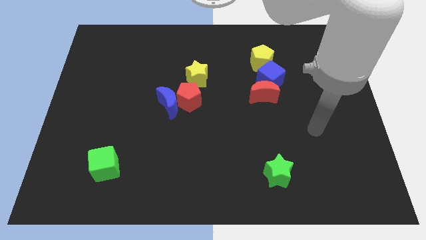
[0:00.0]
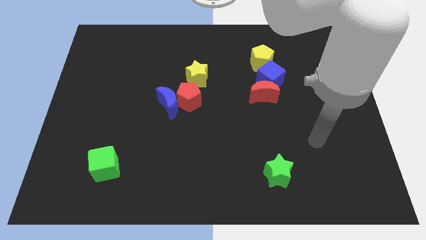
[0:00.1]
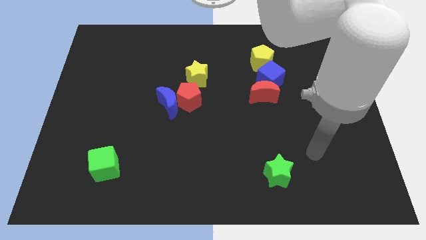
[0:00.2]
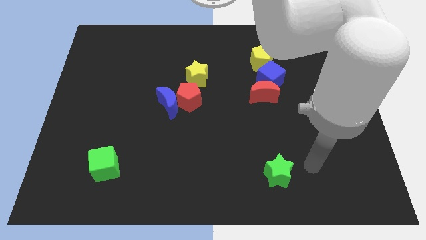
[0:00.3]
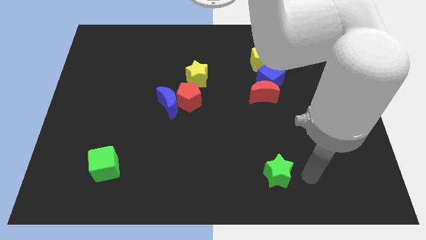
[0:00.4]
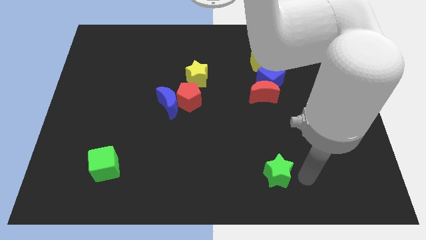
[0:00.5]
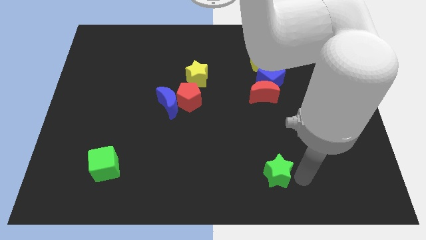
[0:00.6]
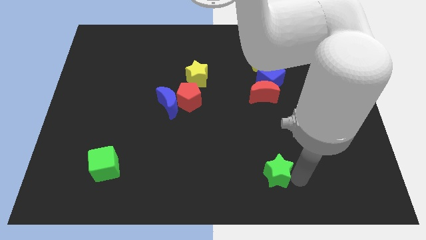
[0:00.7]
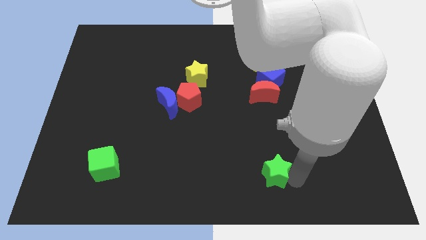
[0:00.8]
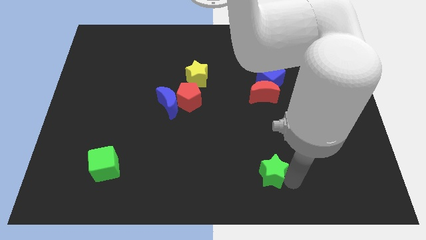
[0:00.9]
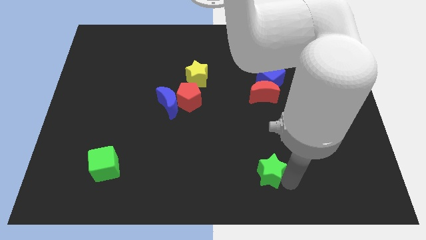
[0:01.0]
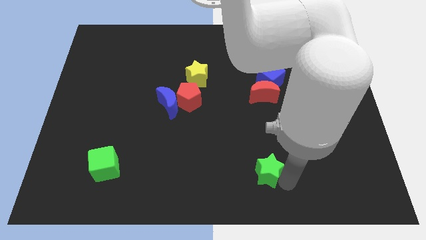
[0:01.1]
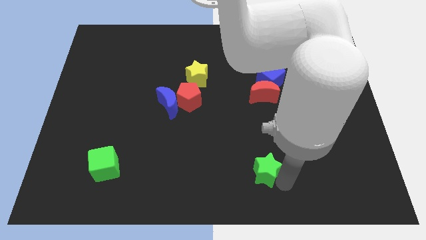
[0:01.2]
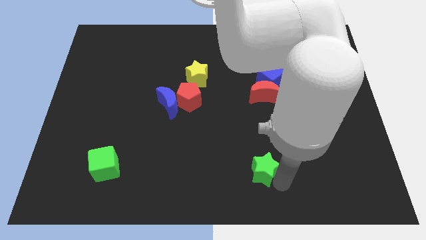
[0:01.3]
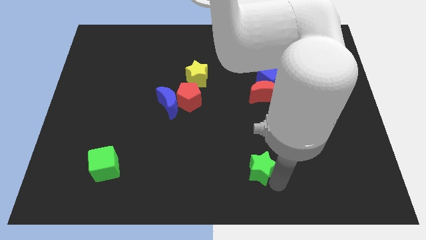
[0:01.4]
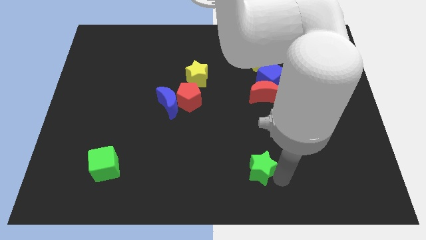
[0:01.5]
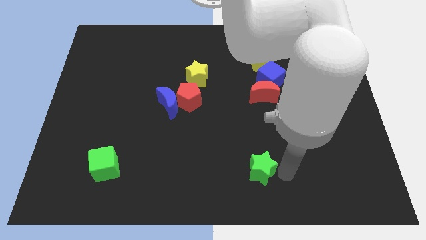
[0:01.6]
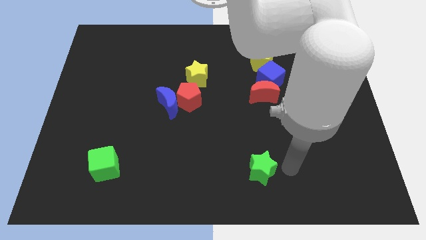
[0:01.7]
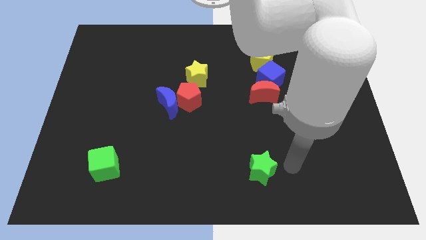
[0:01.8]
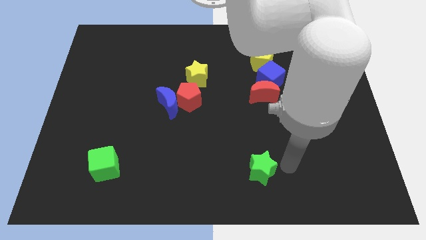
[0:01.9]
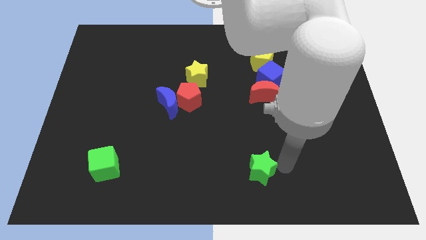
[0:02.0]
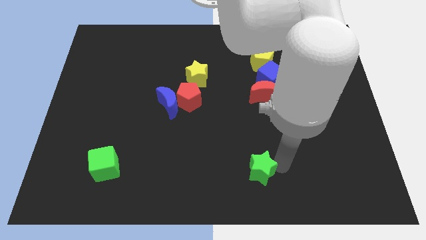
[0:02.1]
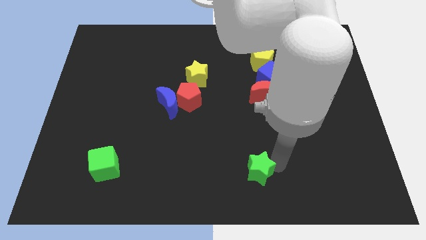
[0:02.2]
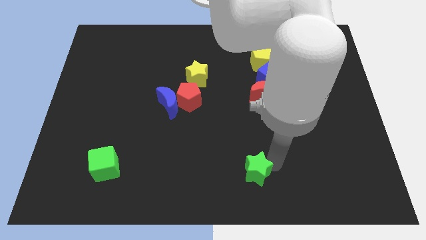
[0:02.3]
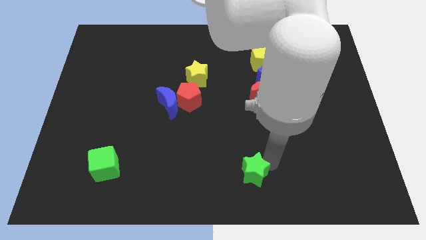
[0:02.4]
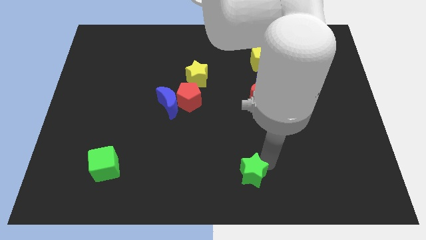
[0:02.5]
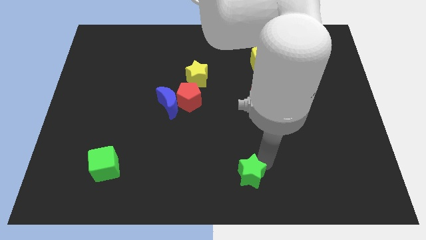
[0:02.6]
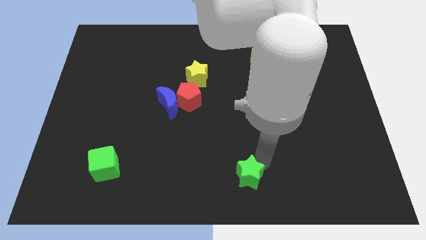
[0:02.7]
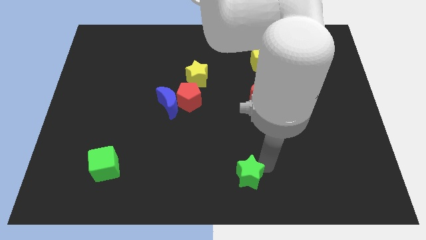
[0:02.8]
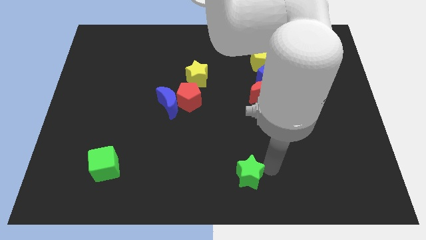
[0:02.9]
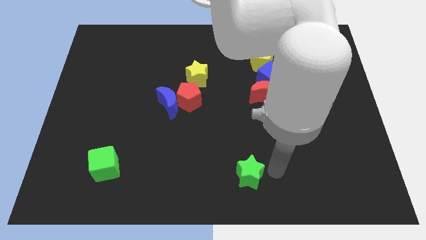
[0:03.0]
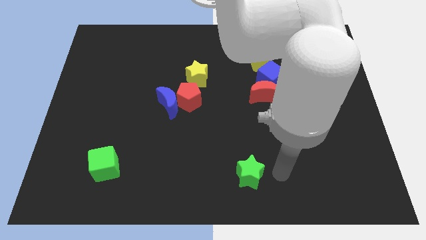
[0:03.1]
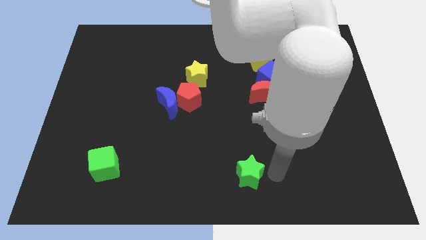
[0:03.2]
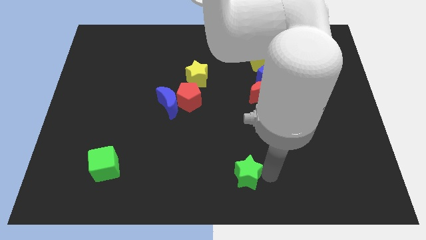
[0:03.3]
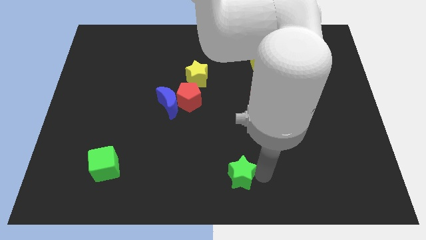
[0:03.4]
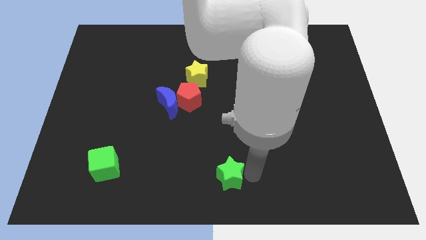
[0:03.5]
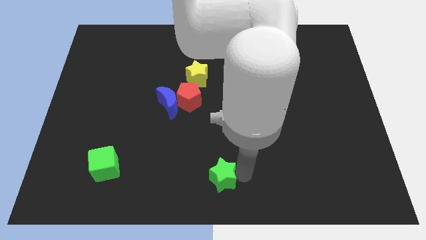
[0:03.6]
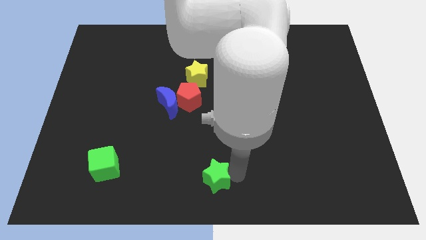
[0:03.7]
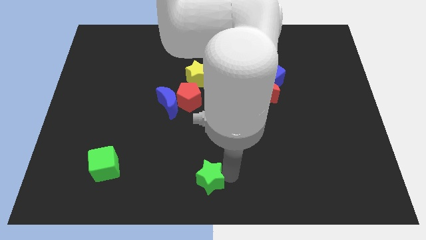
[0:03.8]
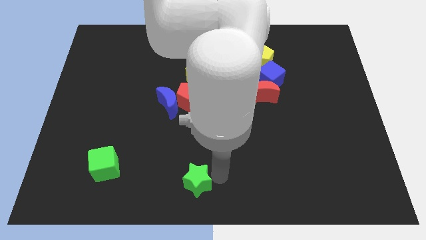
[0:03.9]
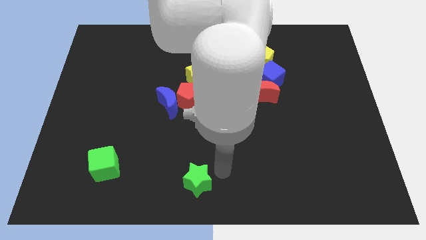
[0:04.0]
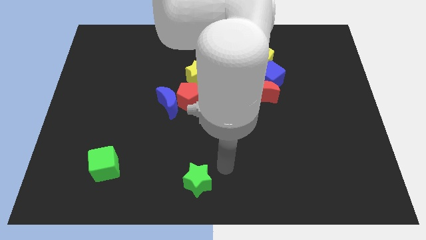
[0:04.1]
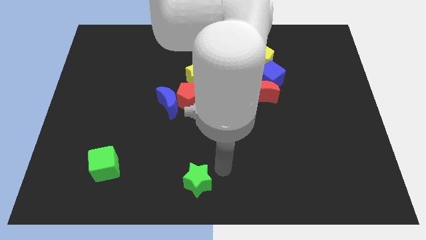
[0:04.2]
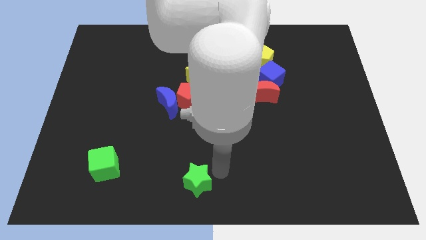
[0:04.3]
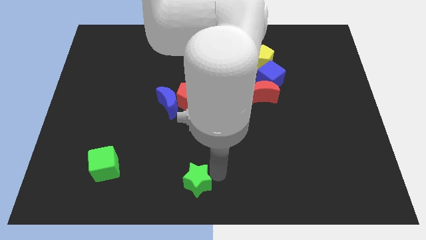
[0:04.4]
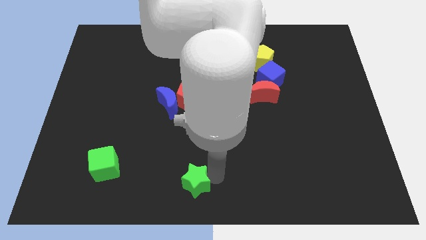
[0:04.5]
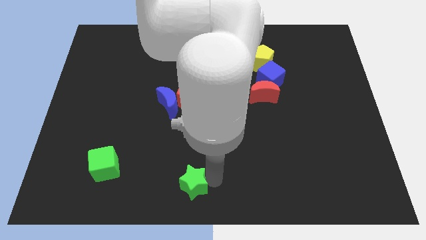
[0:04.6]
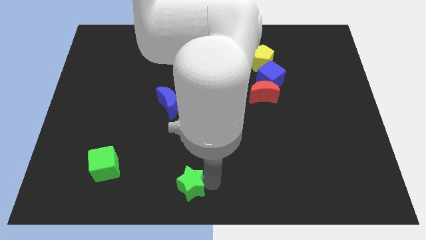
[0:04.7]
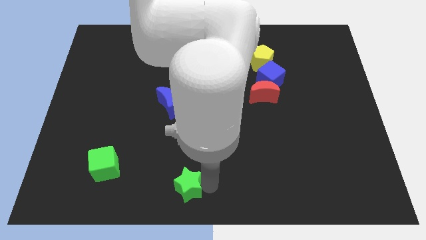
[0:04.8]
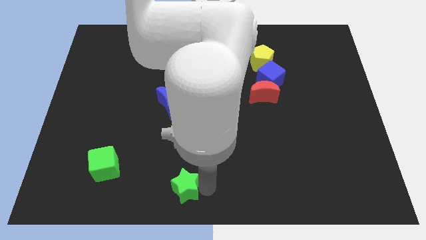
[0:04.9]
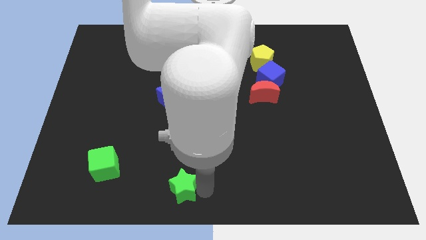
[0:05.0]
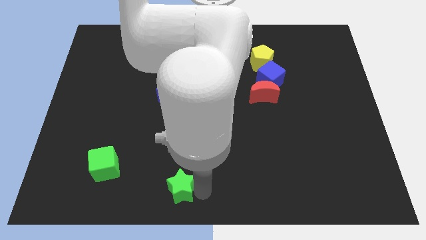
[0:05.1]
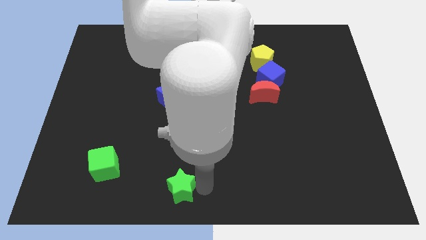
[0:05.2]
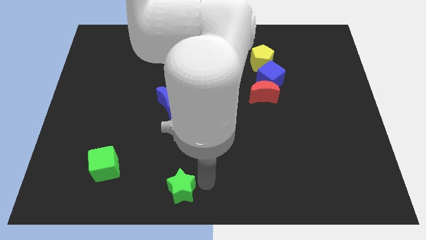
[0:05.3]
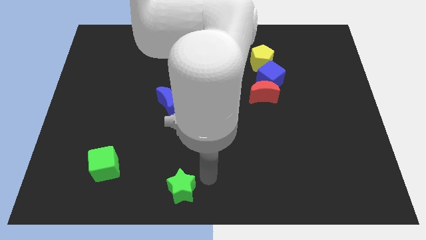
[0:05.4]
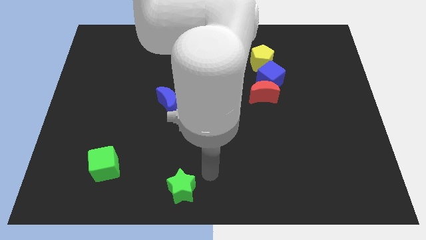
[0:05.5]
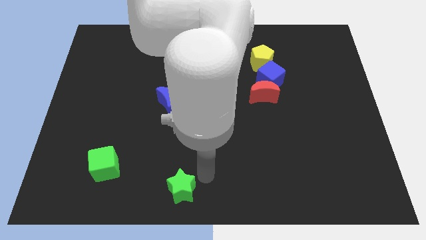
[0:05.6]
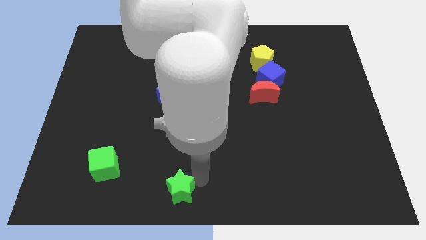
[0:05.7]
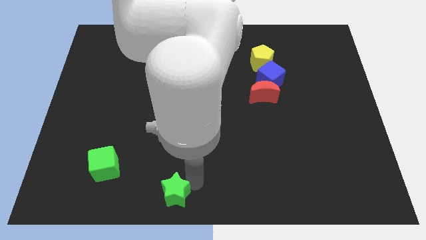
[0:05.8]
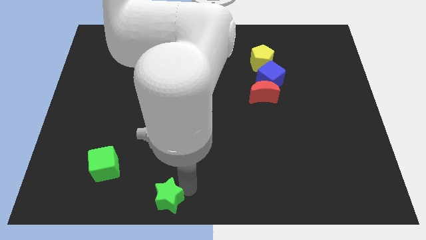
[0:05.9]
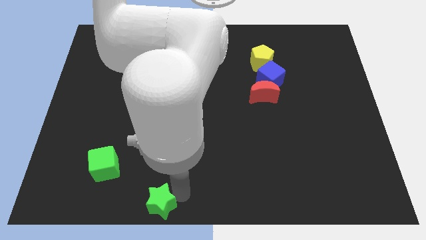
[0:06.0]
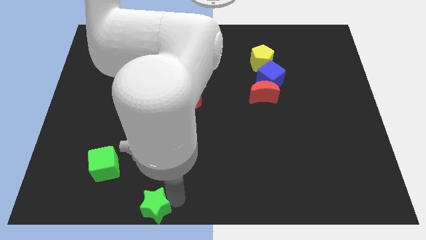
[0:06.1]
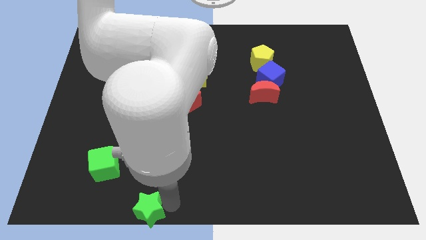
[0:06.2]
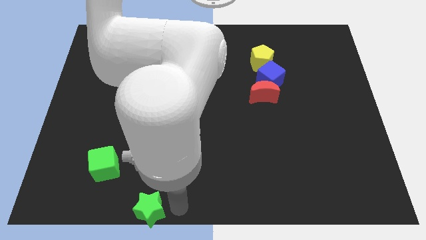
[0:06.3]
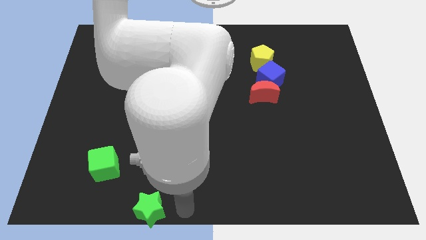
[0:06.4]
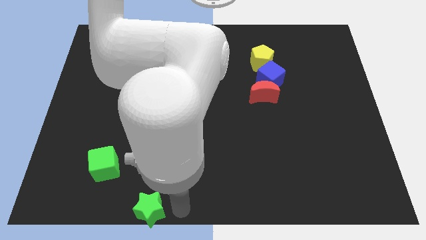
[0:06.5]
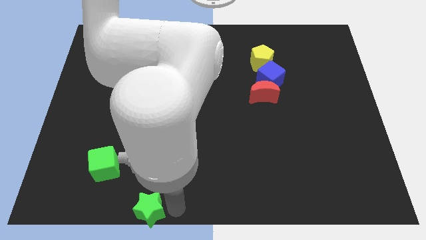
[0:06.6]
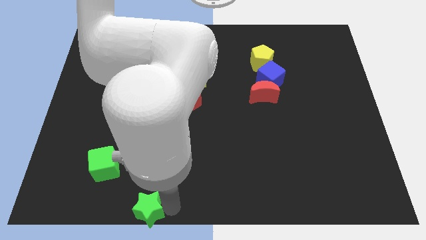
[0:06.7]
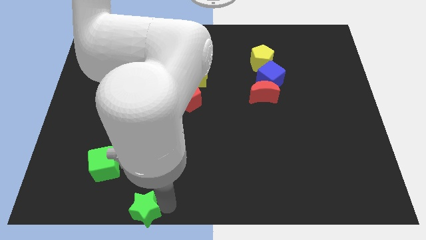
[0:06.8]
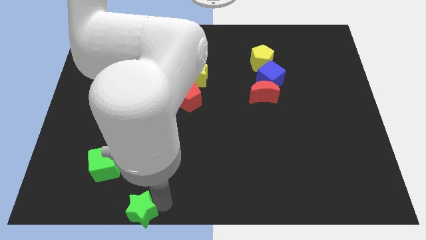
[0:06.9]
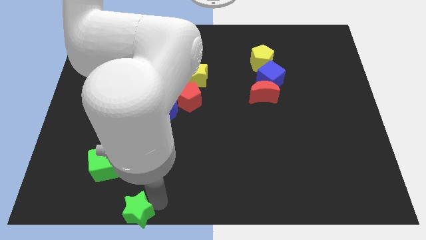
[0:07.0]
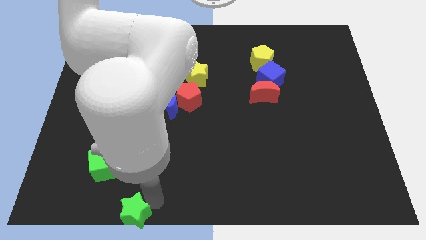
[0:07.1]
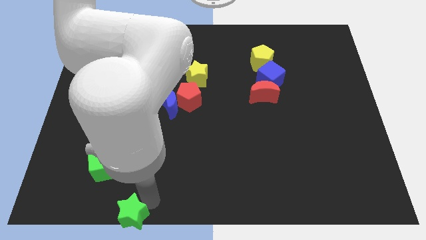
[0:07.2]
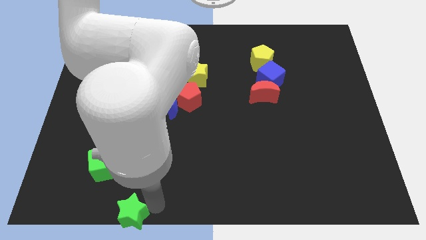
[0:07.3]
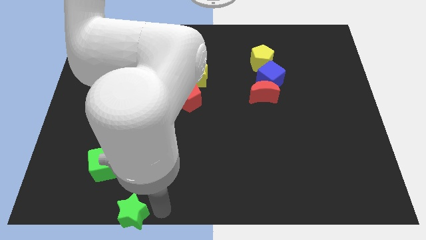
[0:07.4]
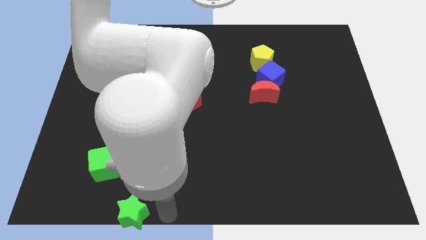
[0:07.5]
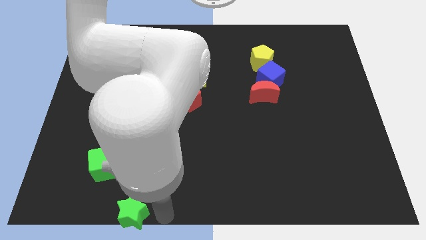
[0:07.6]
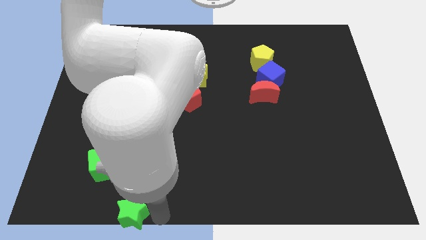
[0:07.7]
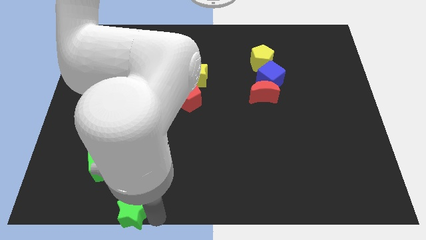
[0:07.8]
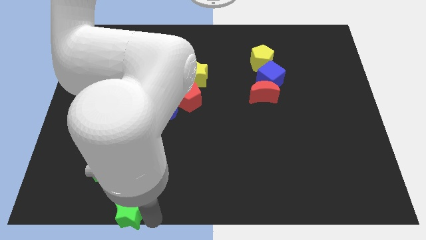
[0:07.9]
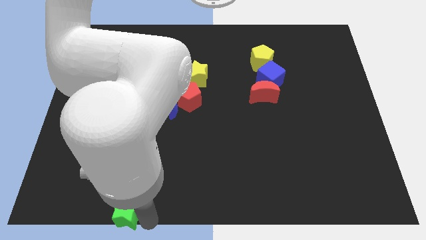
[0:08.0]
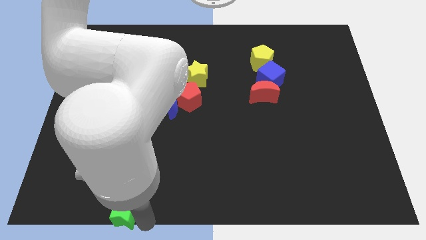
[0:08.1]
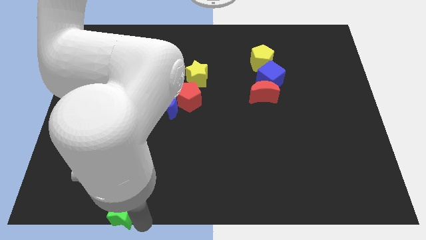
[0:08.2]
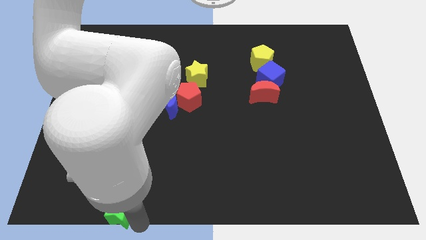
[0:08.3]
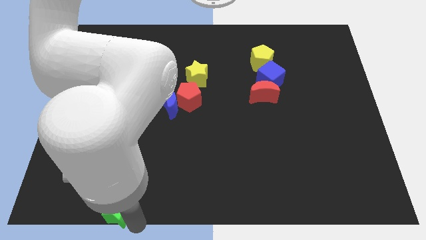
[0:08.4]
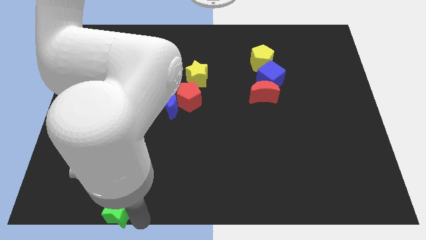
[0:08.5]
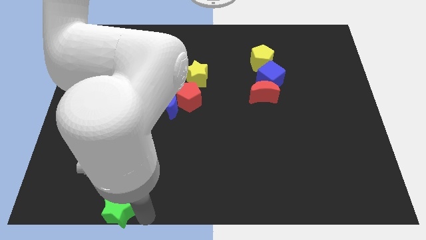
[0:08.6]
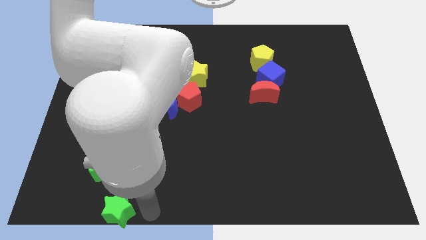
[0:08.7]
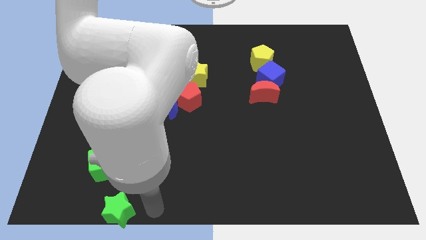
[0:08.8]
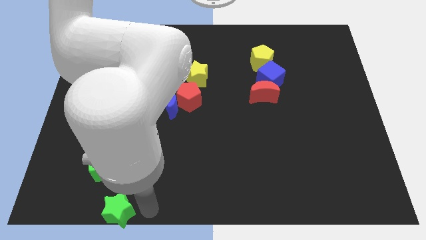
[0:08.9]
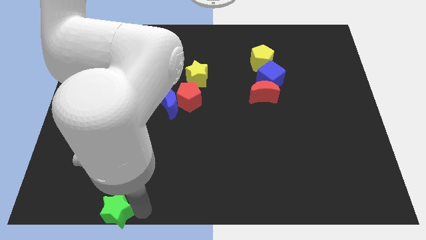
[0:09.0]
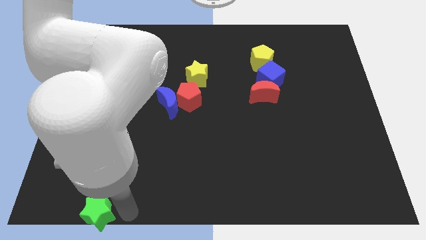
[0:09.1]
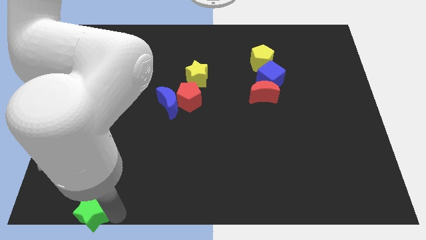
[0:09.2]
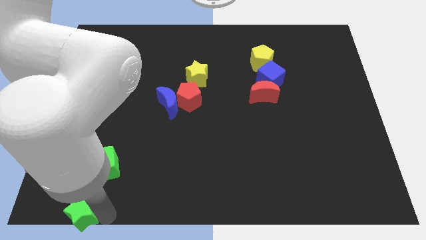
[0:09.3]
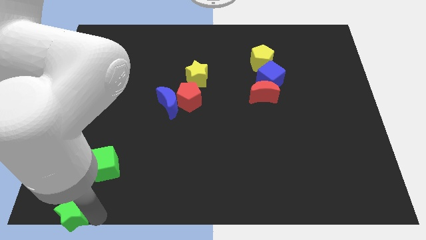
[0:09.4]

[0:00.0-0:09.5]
put the green star to the lower left corner
